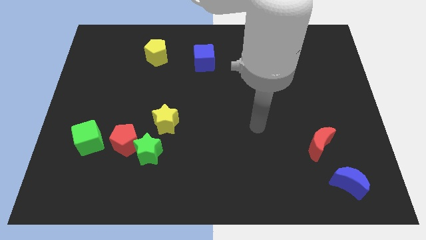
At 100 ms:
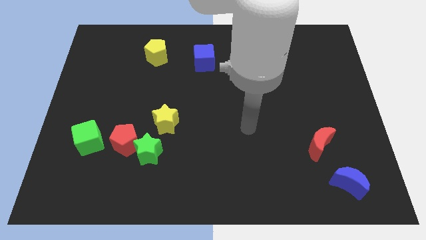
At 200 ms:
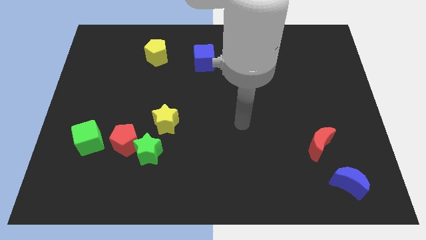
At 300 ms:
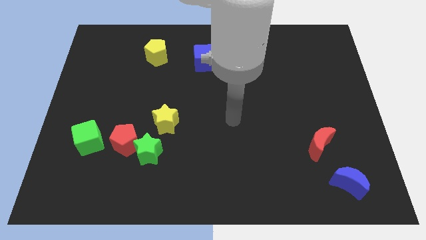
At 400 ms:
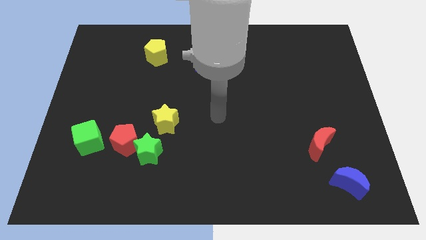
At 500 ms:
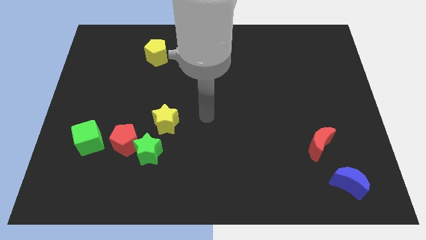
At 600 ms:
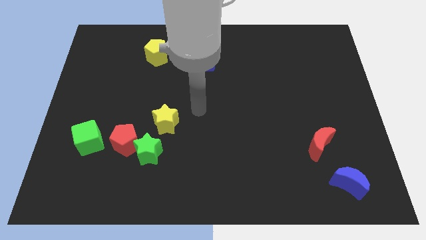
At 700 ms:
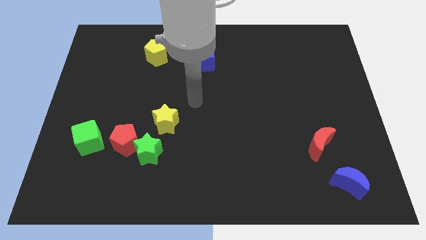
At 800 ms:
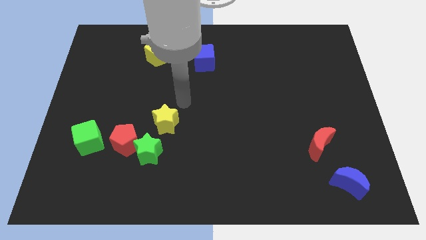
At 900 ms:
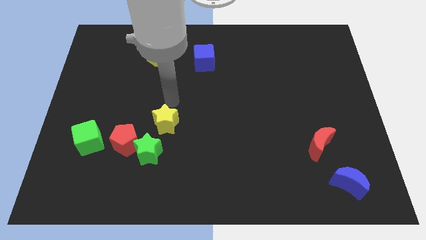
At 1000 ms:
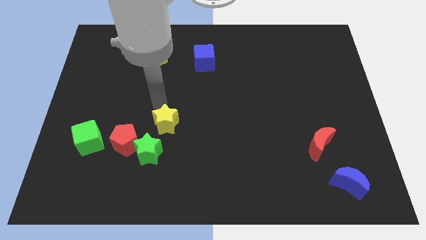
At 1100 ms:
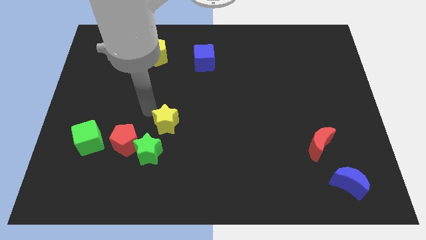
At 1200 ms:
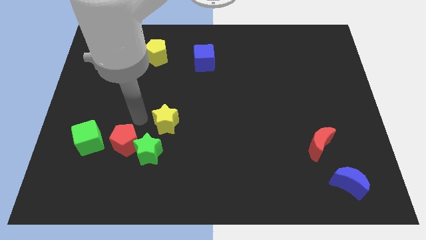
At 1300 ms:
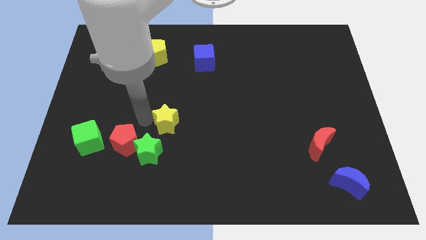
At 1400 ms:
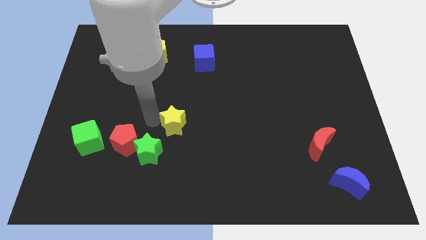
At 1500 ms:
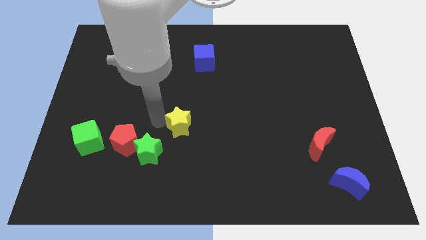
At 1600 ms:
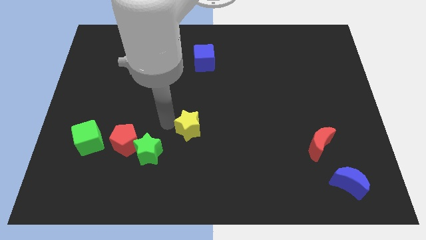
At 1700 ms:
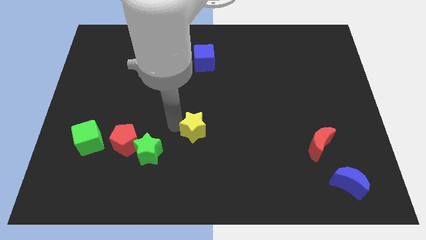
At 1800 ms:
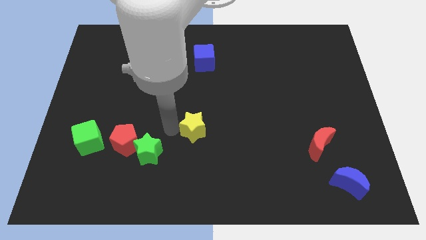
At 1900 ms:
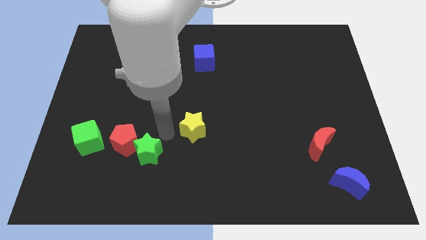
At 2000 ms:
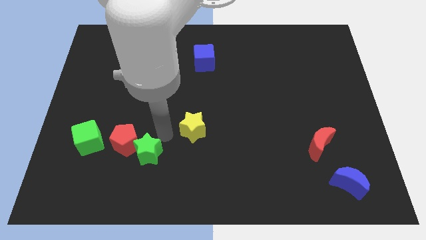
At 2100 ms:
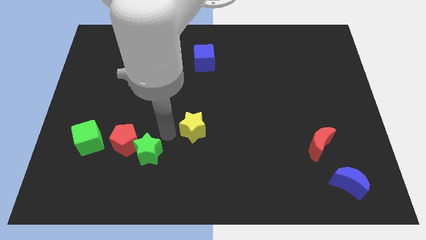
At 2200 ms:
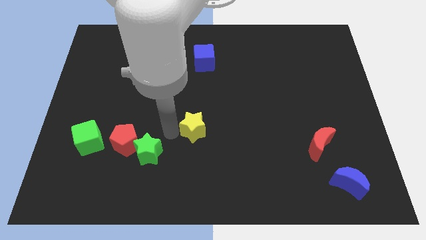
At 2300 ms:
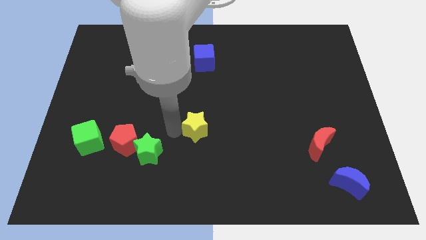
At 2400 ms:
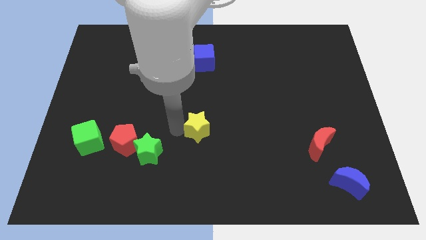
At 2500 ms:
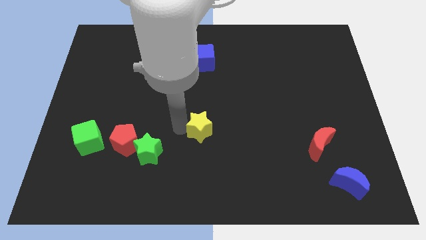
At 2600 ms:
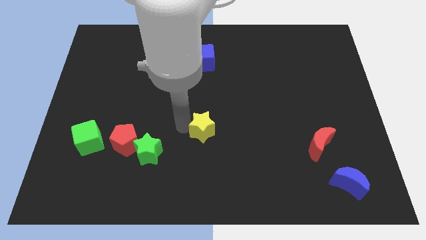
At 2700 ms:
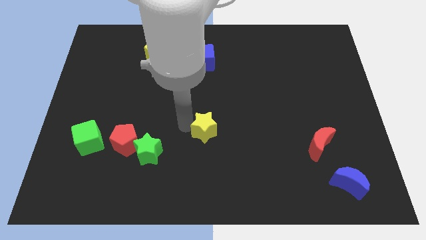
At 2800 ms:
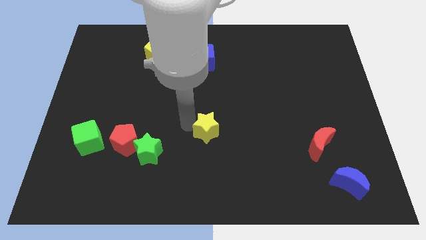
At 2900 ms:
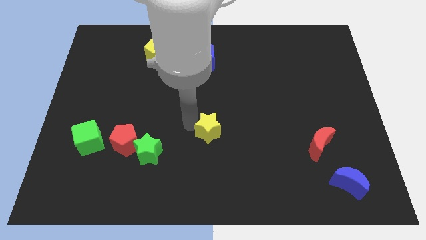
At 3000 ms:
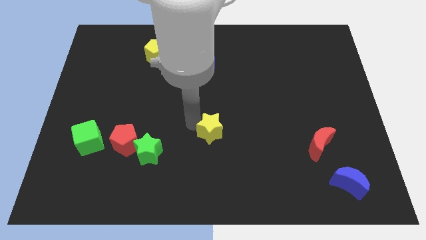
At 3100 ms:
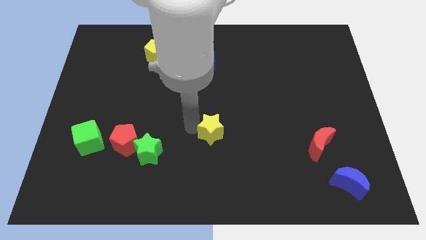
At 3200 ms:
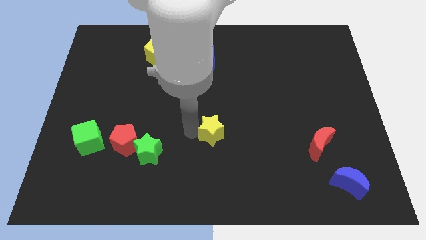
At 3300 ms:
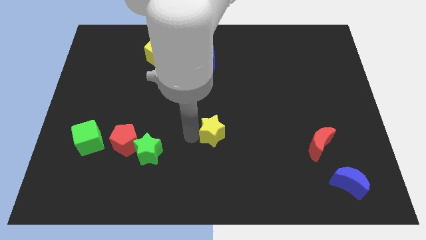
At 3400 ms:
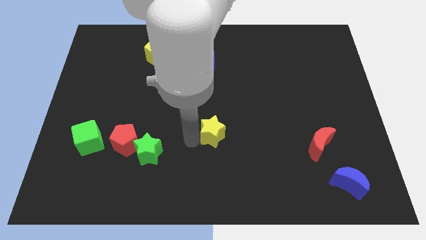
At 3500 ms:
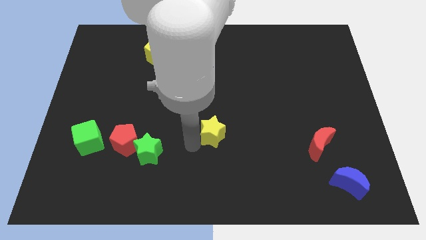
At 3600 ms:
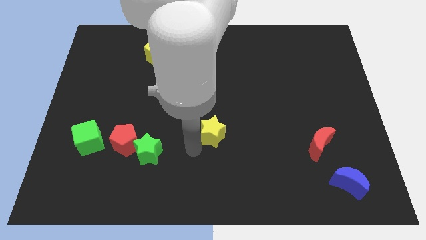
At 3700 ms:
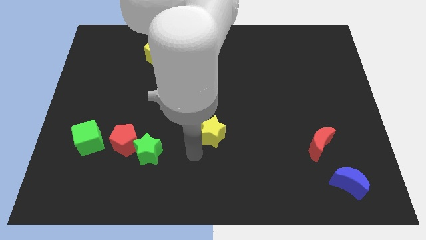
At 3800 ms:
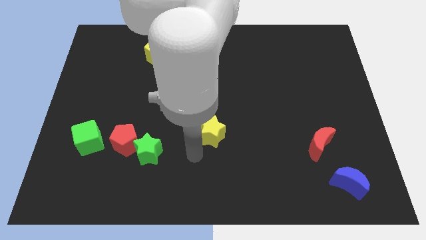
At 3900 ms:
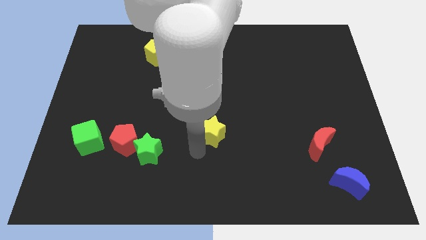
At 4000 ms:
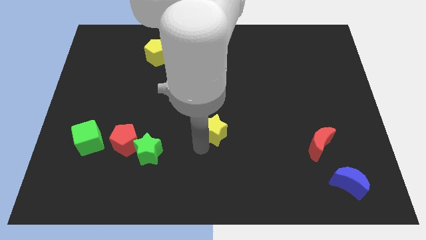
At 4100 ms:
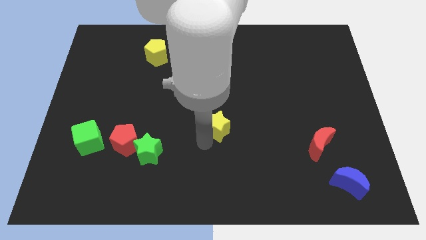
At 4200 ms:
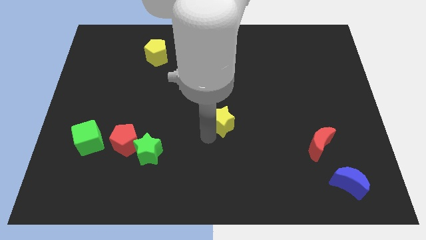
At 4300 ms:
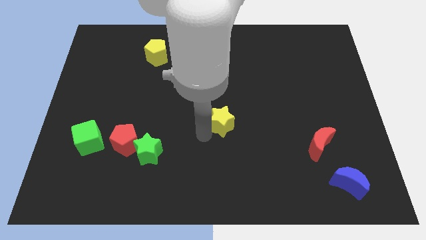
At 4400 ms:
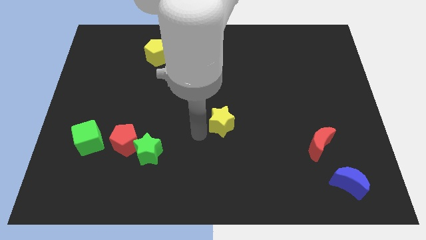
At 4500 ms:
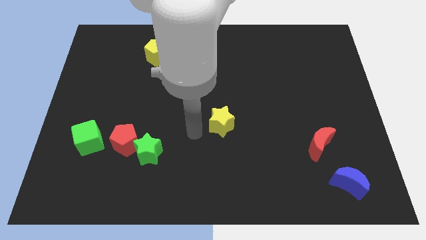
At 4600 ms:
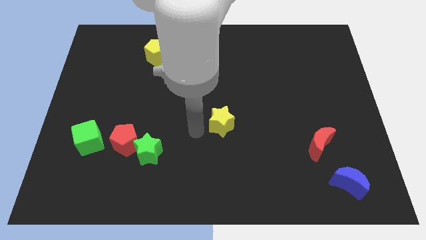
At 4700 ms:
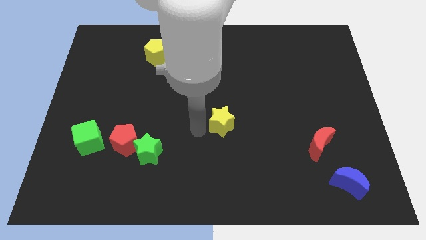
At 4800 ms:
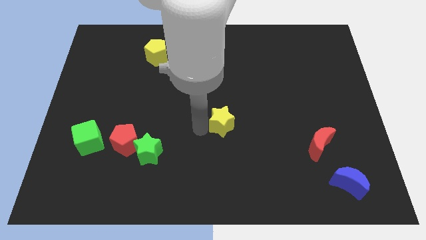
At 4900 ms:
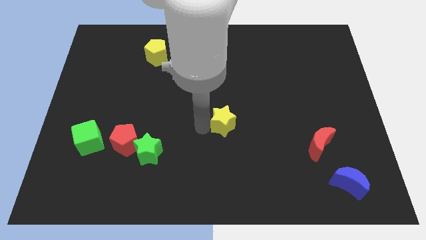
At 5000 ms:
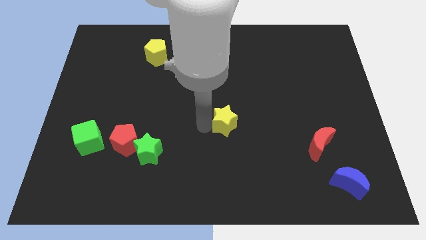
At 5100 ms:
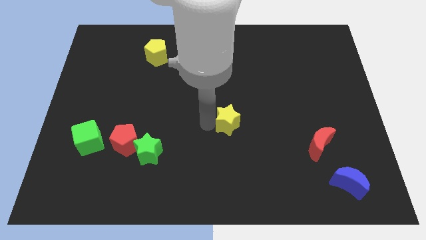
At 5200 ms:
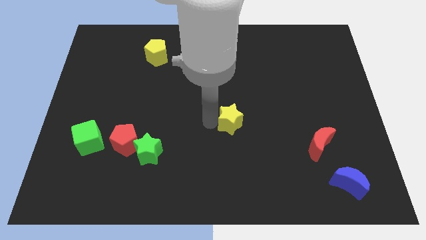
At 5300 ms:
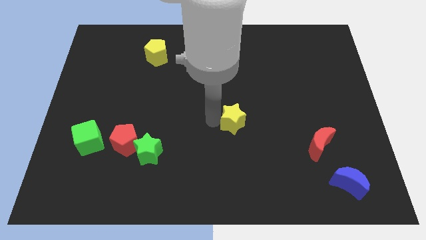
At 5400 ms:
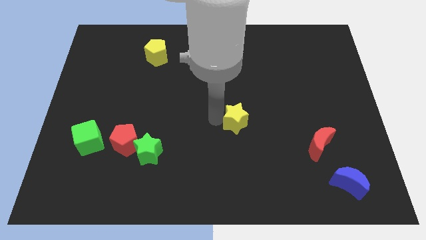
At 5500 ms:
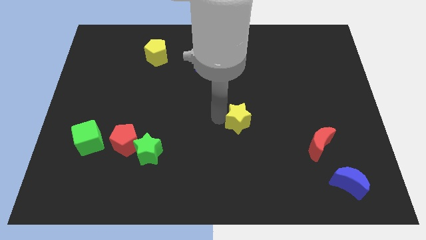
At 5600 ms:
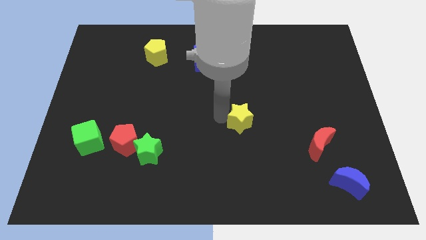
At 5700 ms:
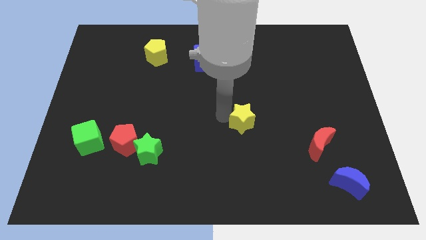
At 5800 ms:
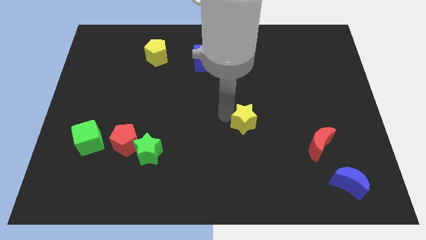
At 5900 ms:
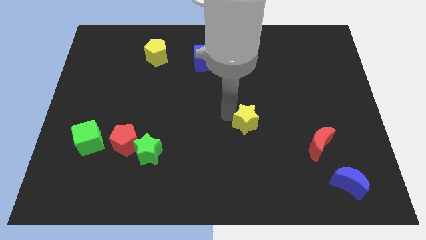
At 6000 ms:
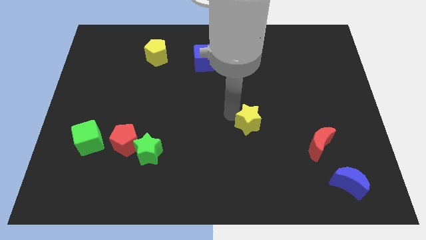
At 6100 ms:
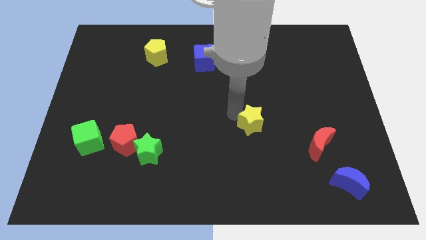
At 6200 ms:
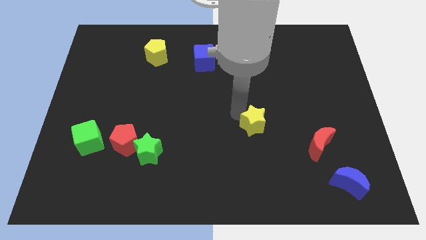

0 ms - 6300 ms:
slide the yellow star right

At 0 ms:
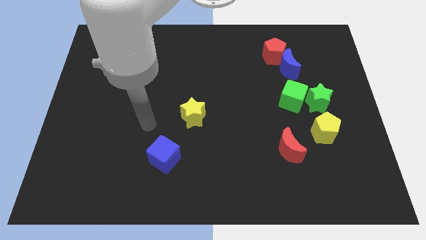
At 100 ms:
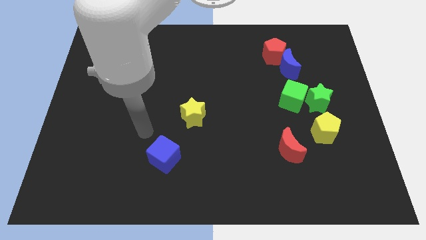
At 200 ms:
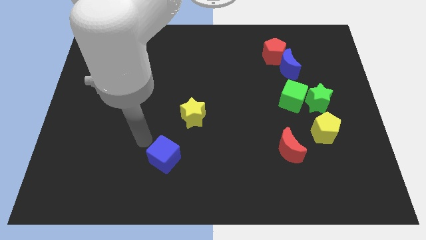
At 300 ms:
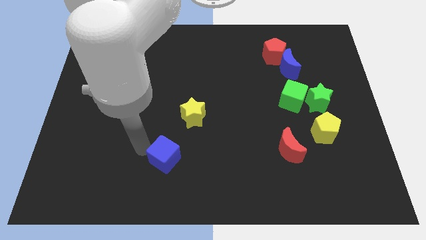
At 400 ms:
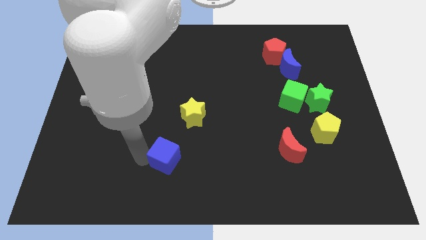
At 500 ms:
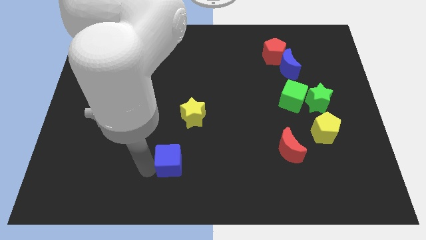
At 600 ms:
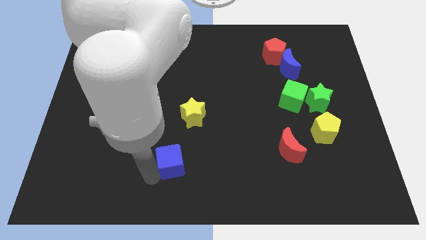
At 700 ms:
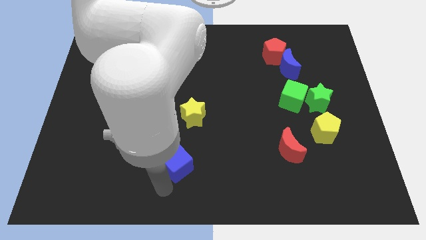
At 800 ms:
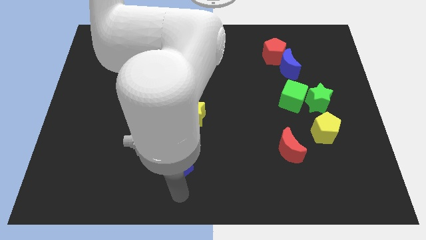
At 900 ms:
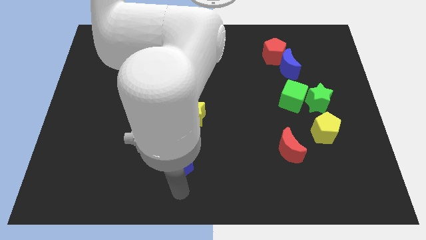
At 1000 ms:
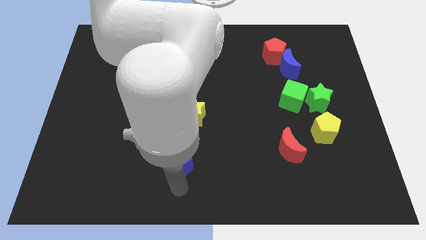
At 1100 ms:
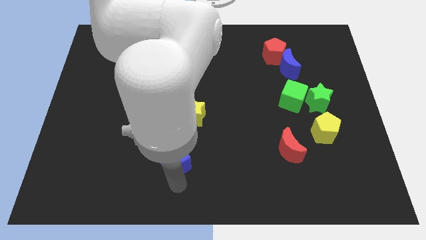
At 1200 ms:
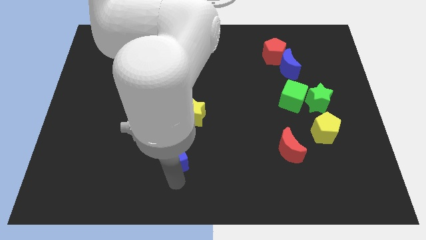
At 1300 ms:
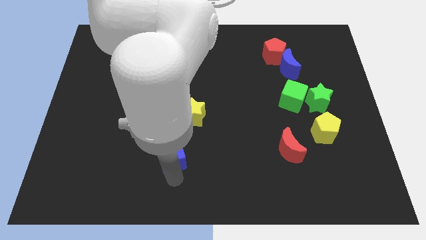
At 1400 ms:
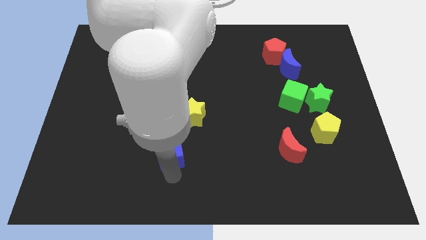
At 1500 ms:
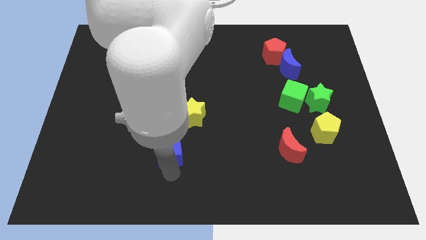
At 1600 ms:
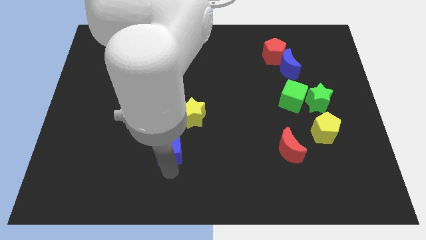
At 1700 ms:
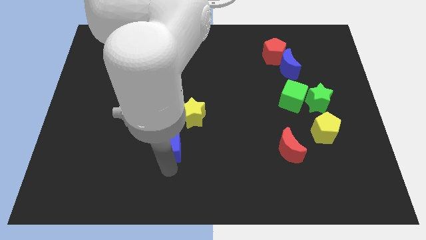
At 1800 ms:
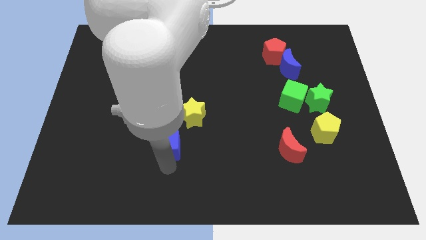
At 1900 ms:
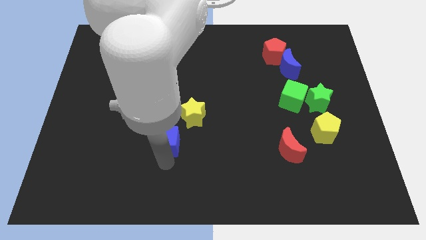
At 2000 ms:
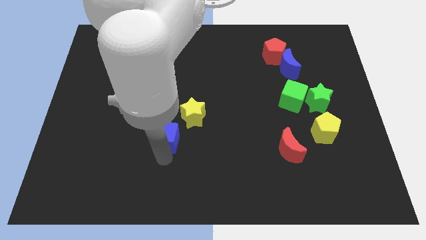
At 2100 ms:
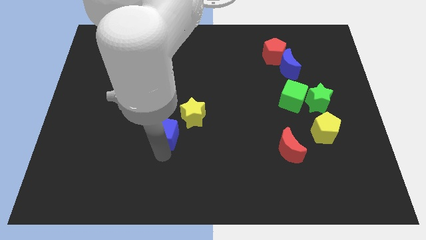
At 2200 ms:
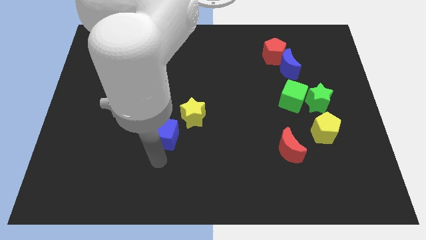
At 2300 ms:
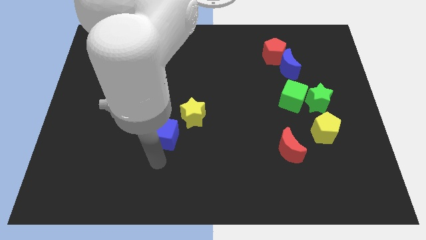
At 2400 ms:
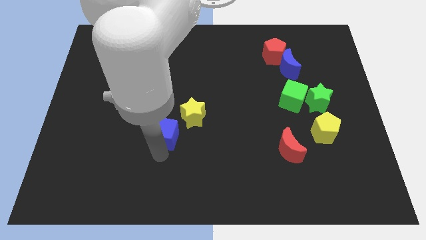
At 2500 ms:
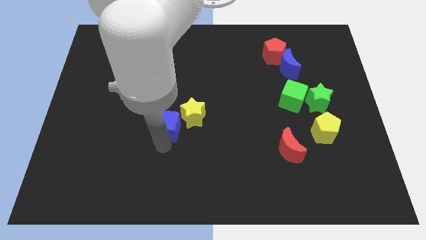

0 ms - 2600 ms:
push the blue cube a bit upwards
